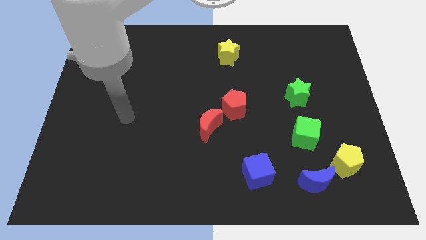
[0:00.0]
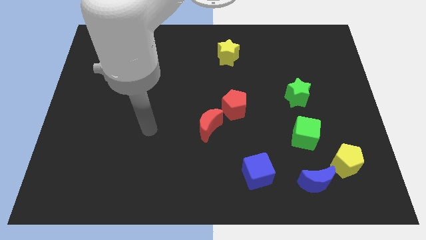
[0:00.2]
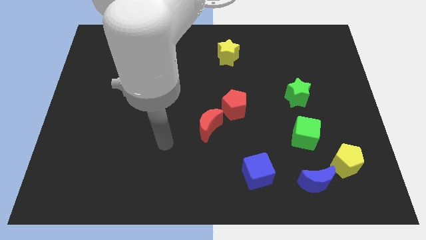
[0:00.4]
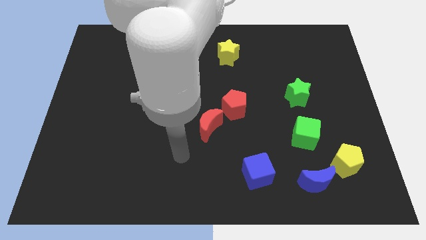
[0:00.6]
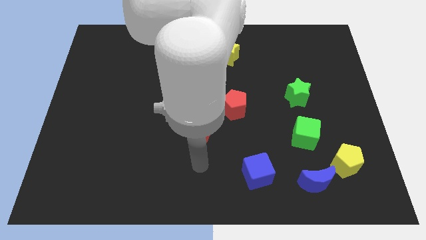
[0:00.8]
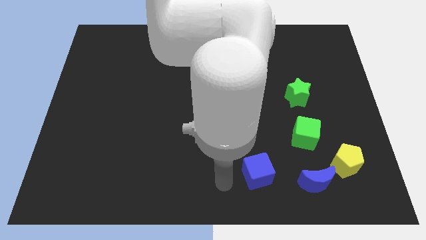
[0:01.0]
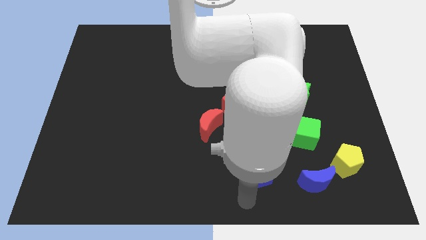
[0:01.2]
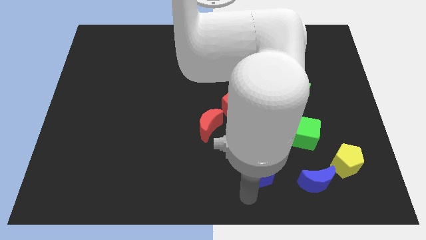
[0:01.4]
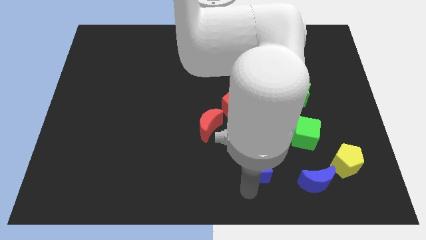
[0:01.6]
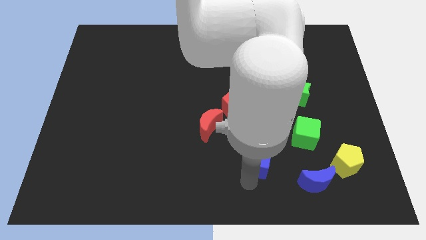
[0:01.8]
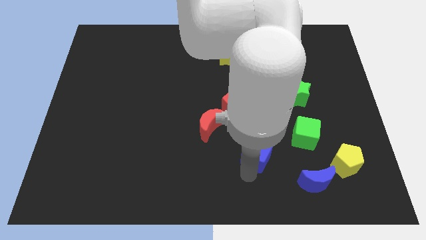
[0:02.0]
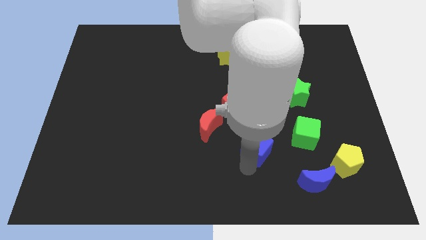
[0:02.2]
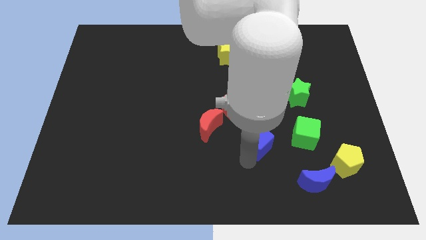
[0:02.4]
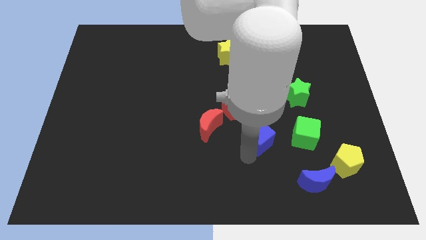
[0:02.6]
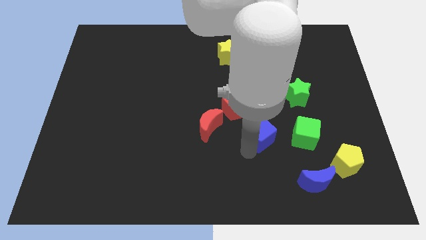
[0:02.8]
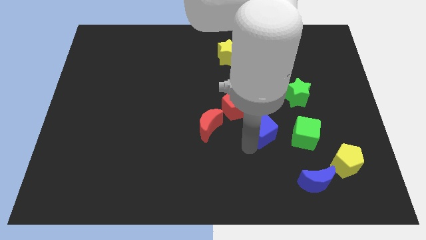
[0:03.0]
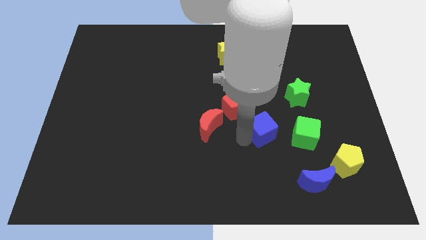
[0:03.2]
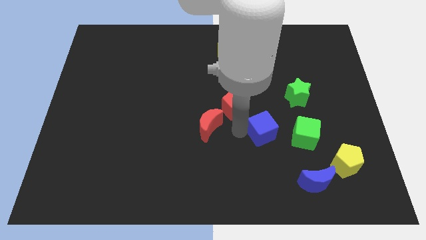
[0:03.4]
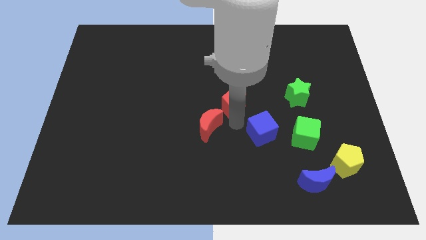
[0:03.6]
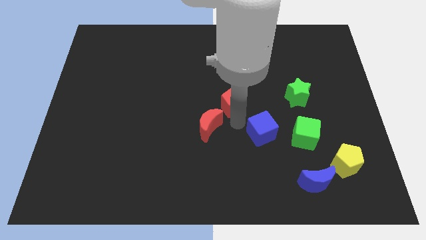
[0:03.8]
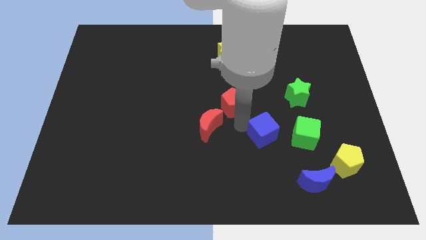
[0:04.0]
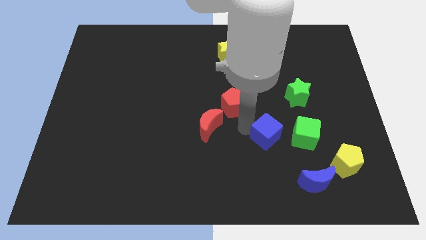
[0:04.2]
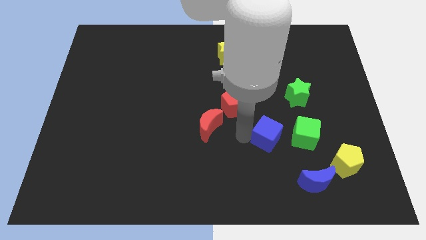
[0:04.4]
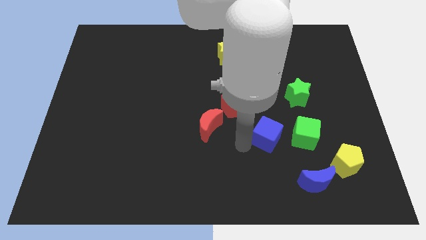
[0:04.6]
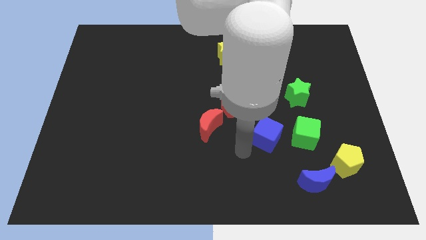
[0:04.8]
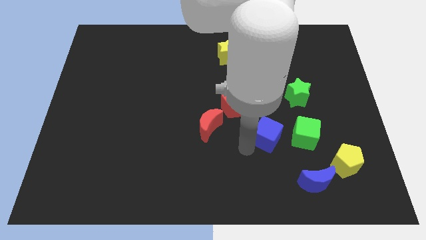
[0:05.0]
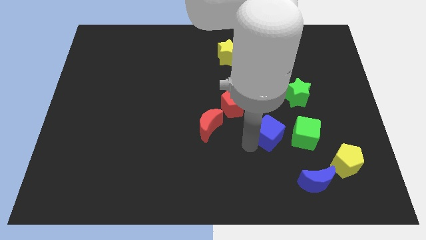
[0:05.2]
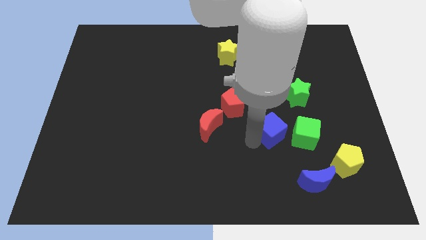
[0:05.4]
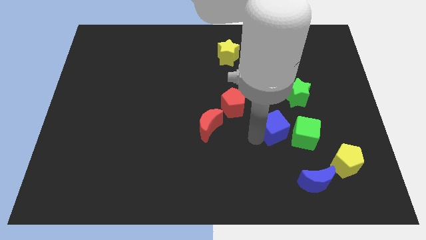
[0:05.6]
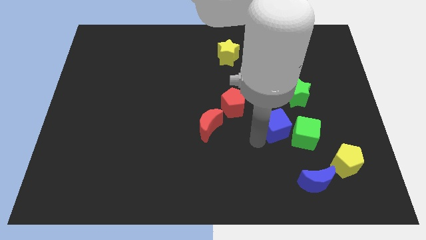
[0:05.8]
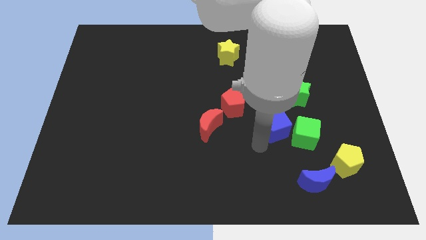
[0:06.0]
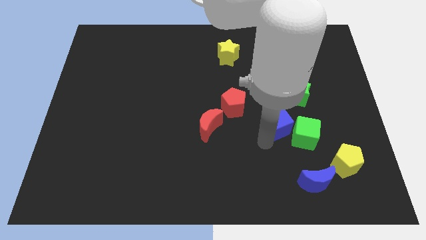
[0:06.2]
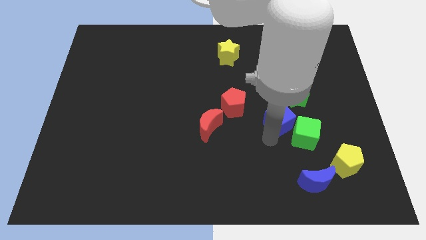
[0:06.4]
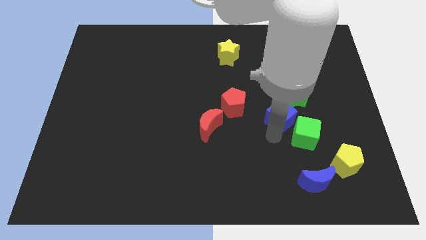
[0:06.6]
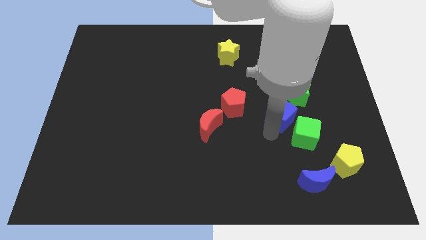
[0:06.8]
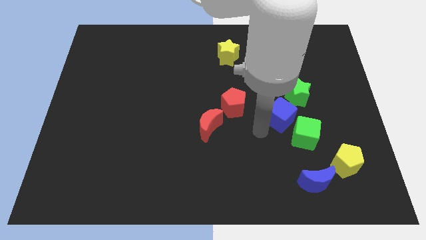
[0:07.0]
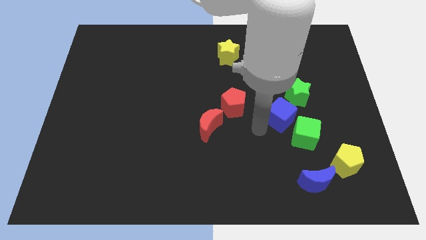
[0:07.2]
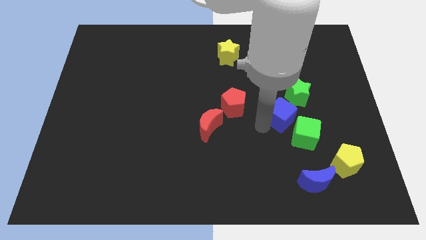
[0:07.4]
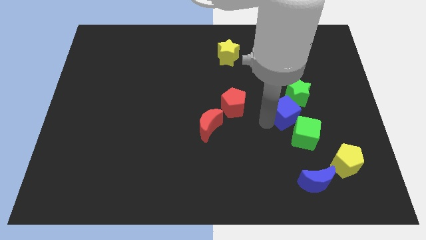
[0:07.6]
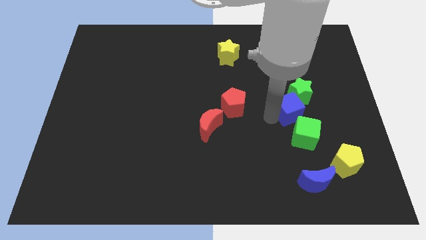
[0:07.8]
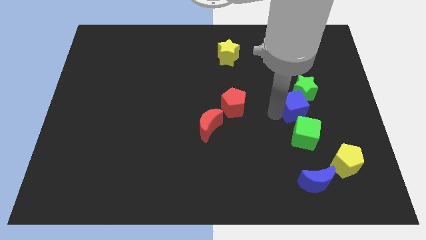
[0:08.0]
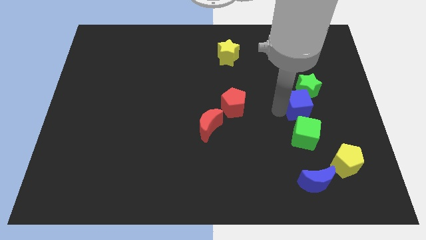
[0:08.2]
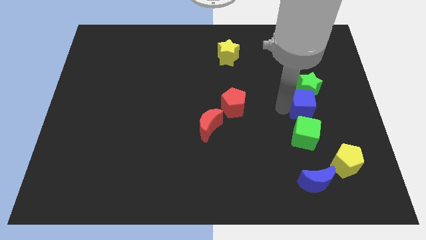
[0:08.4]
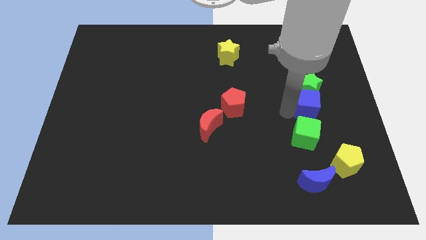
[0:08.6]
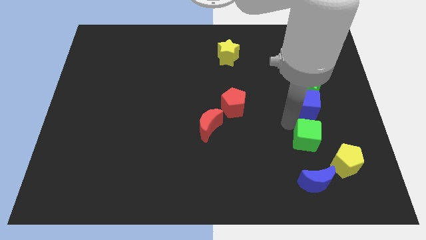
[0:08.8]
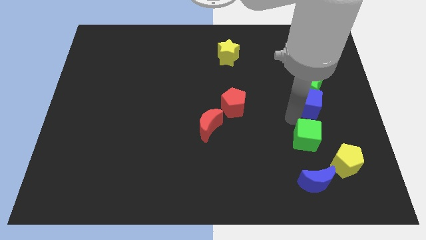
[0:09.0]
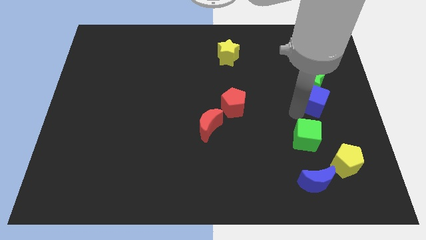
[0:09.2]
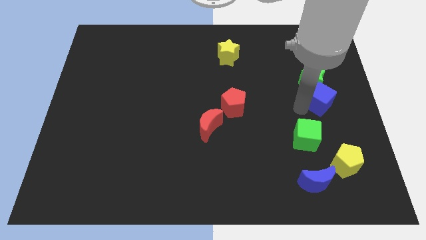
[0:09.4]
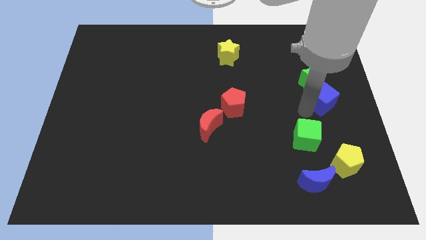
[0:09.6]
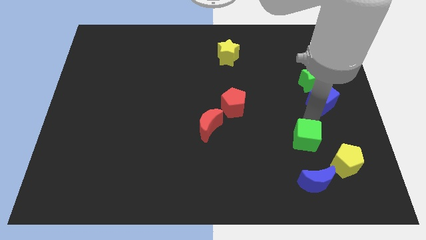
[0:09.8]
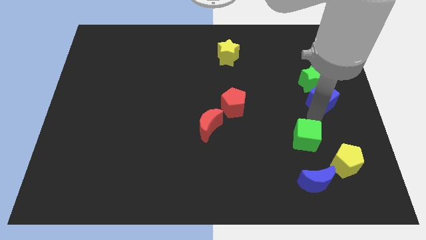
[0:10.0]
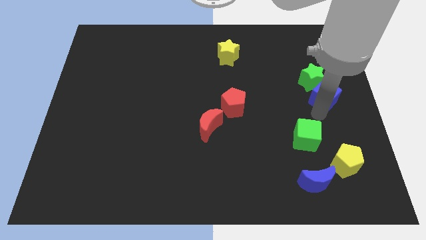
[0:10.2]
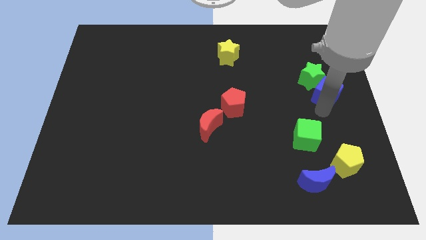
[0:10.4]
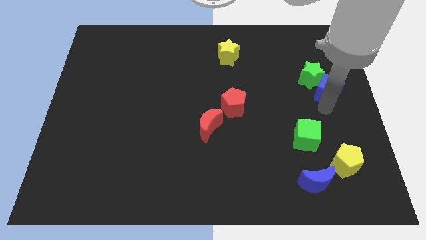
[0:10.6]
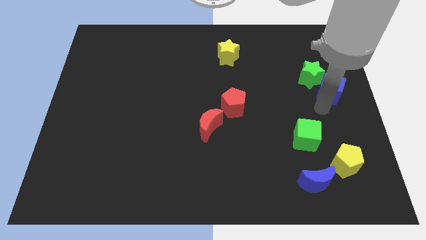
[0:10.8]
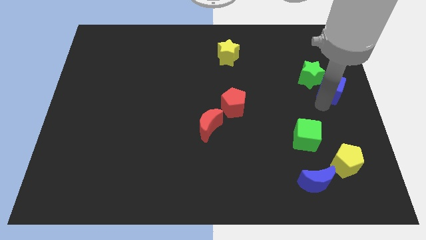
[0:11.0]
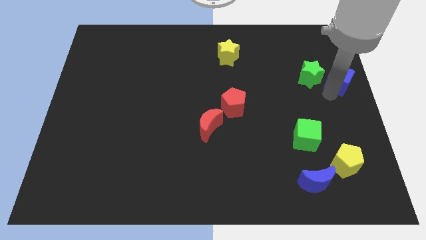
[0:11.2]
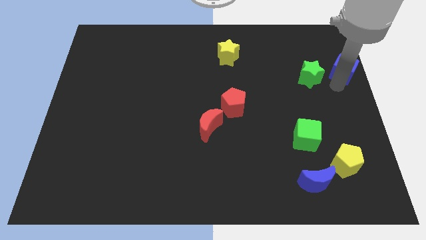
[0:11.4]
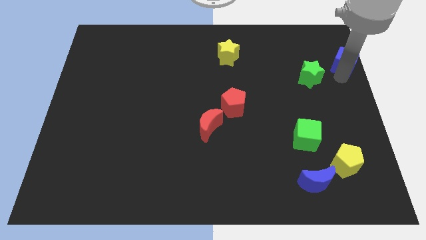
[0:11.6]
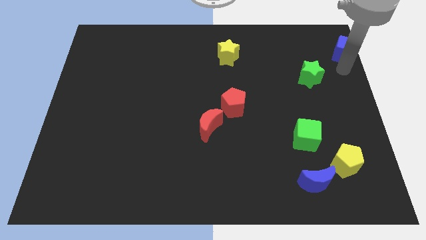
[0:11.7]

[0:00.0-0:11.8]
move the blue cube to the top right

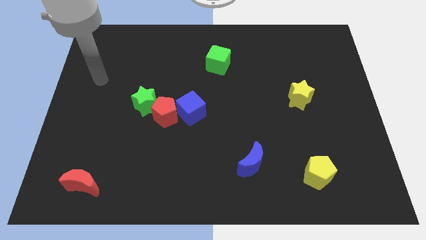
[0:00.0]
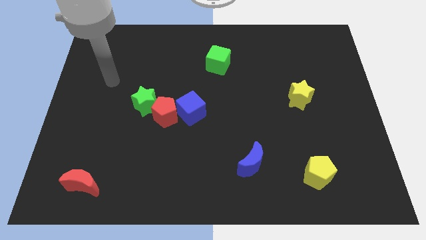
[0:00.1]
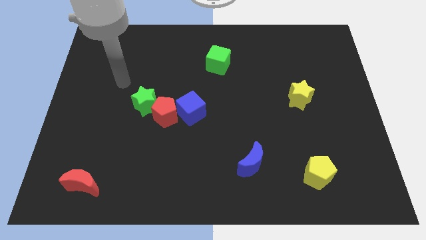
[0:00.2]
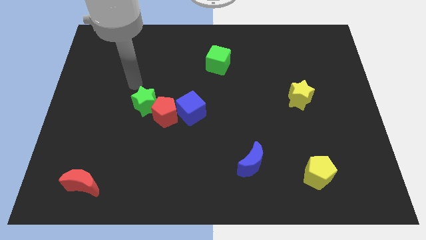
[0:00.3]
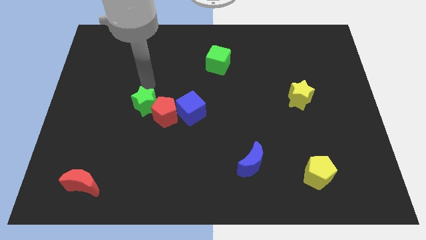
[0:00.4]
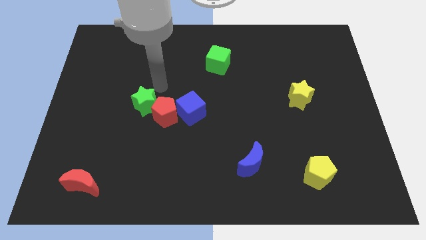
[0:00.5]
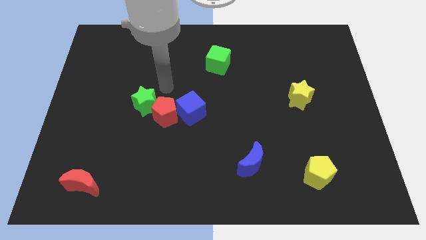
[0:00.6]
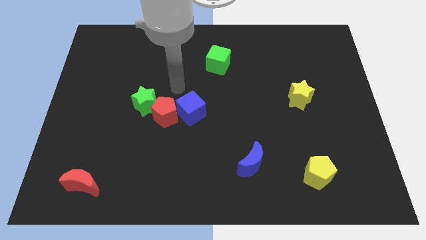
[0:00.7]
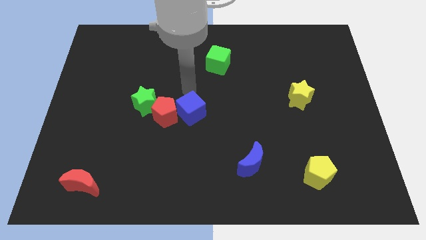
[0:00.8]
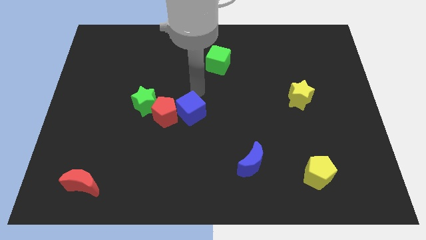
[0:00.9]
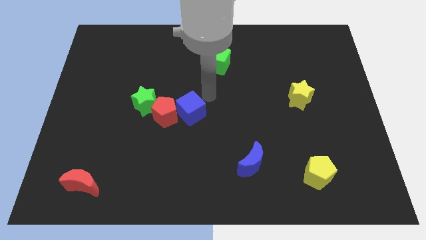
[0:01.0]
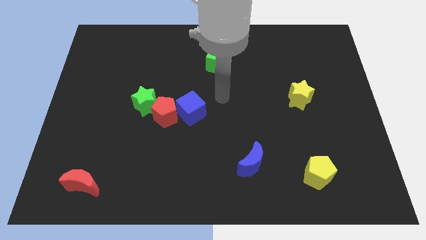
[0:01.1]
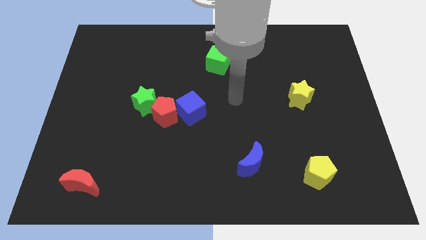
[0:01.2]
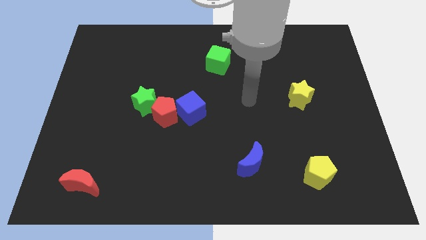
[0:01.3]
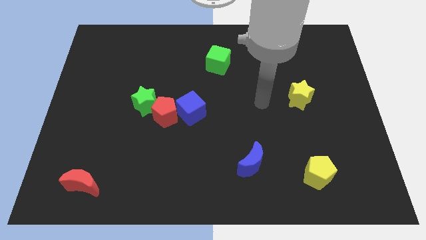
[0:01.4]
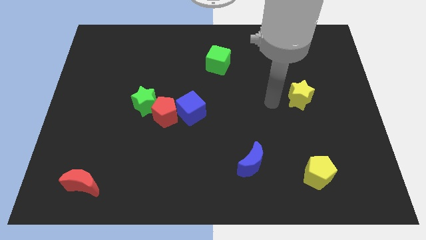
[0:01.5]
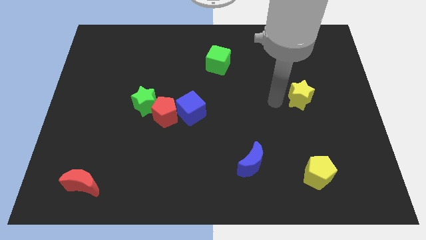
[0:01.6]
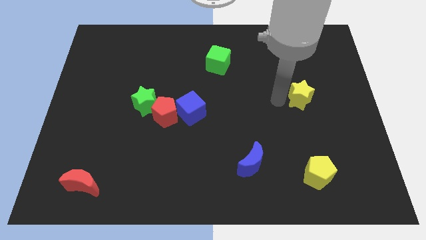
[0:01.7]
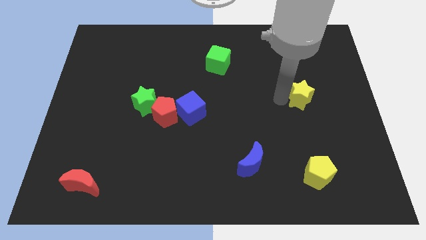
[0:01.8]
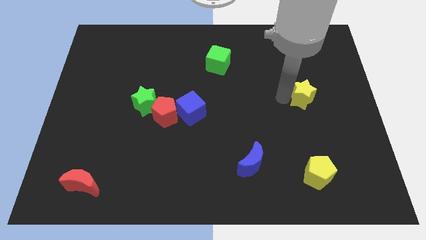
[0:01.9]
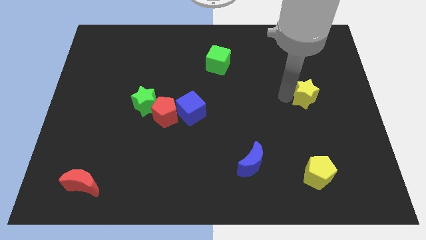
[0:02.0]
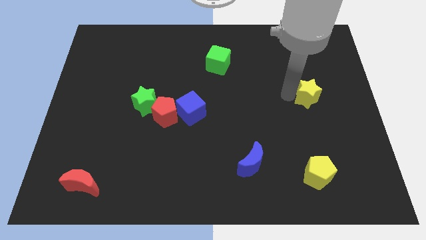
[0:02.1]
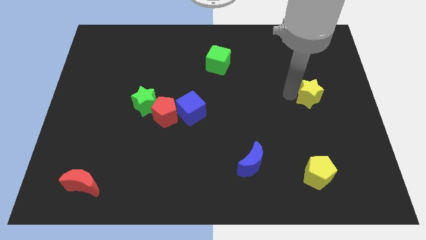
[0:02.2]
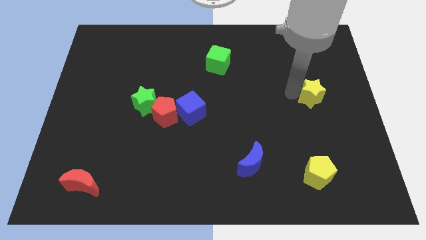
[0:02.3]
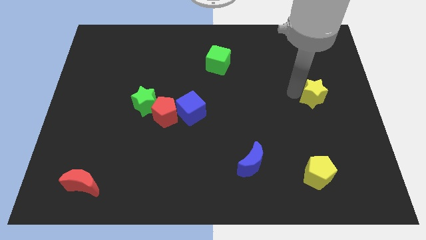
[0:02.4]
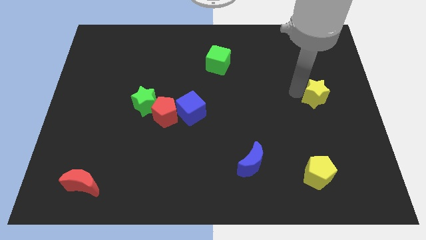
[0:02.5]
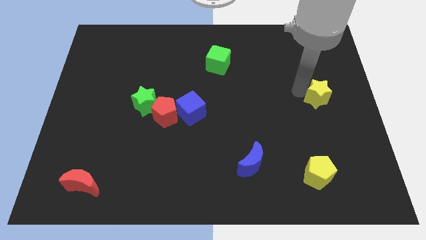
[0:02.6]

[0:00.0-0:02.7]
slide the yellow star to the right side
